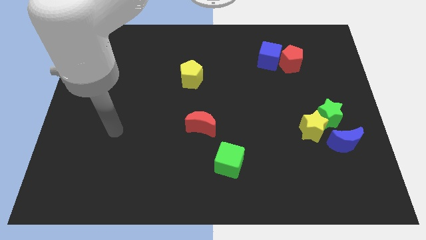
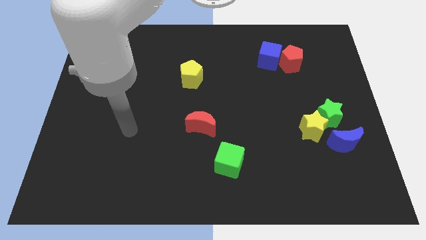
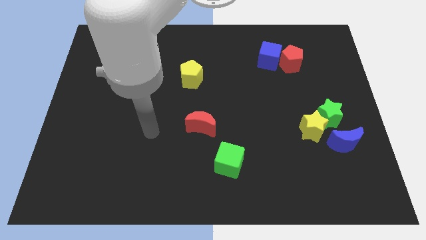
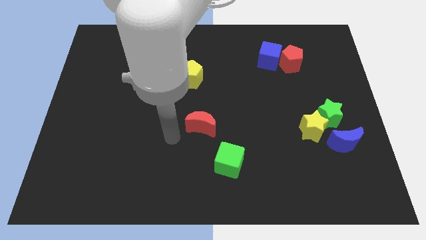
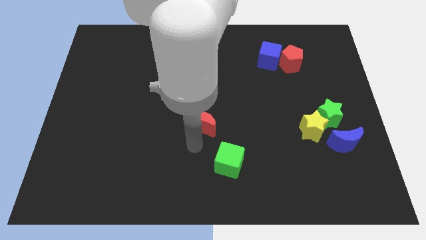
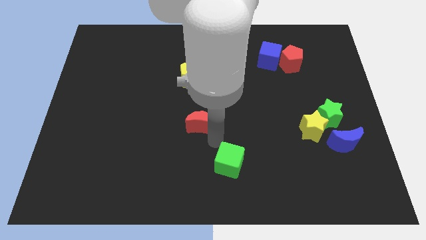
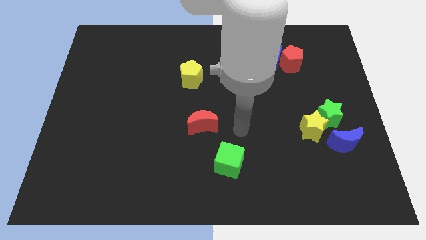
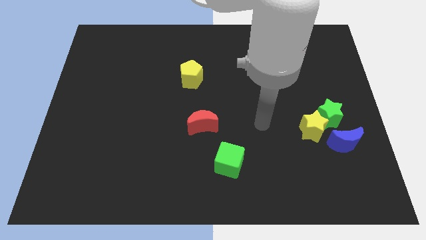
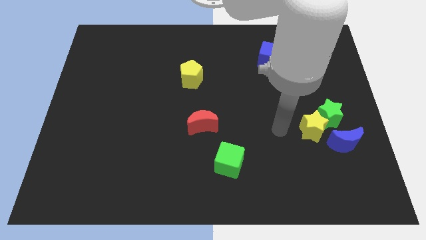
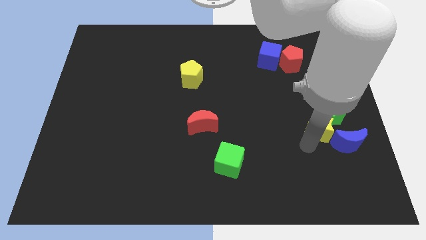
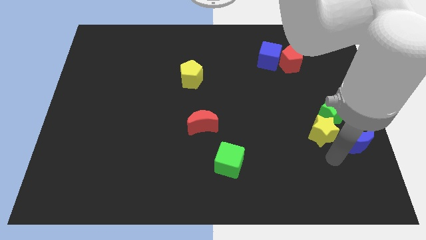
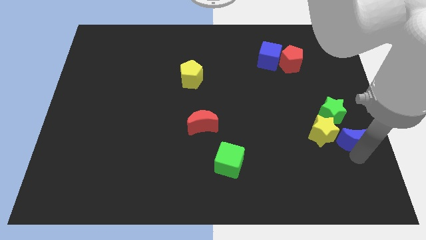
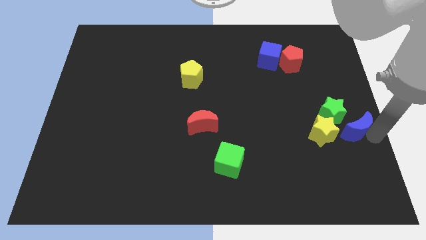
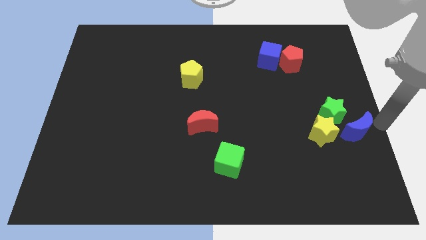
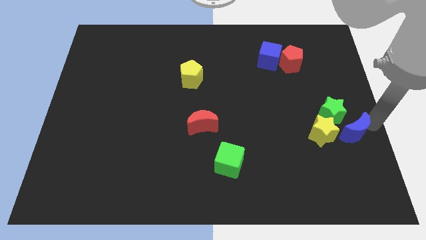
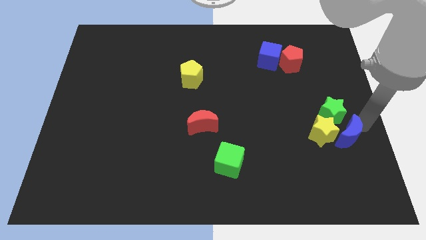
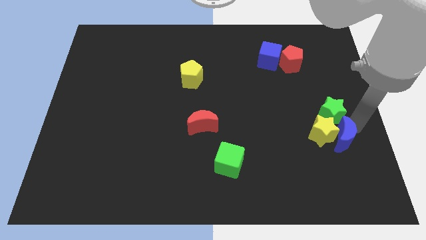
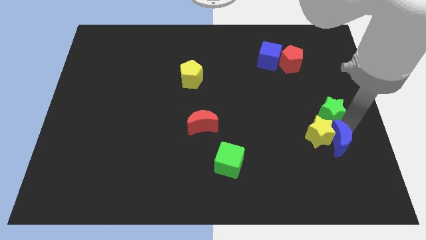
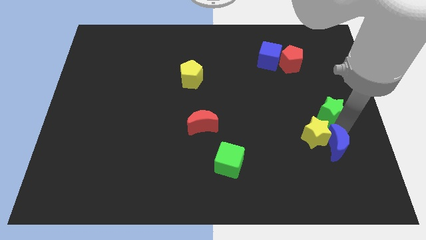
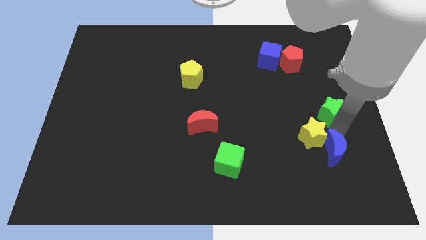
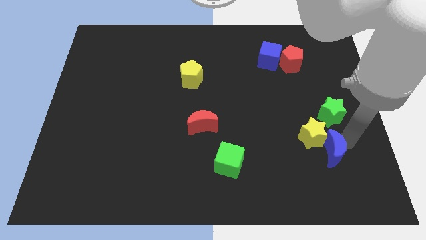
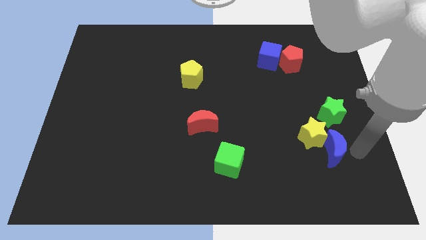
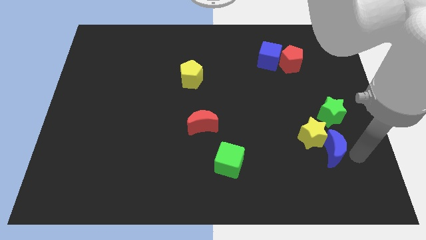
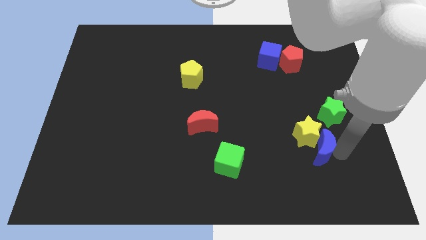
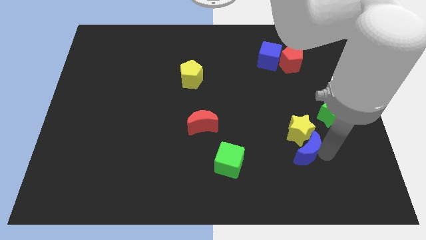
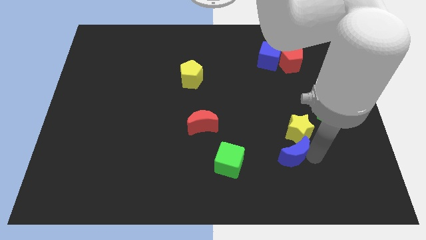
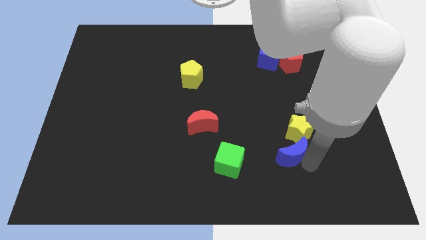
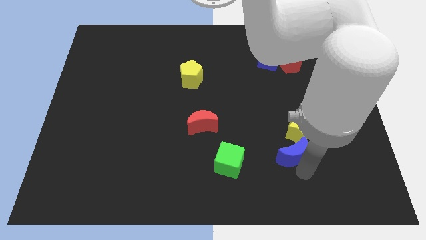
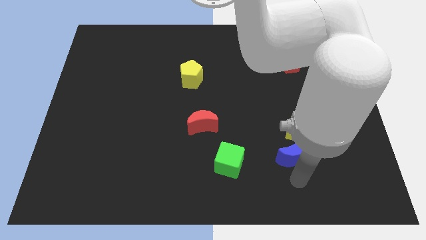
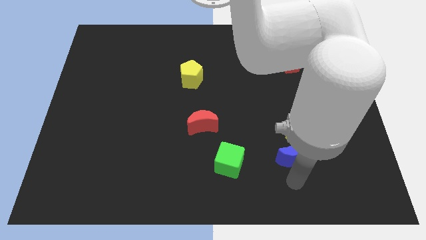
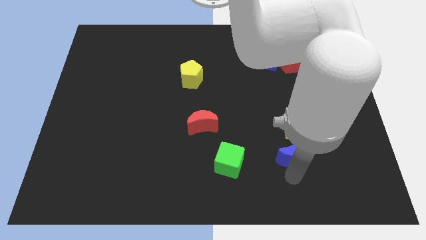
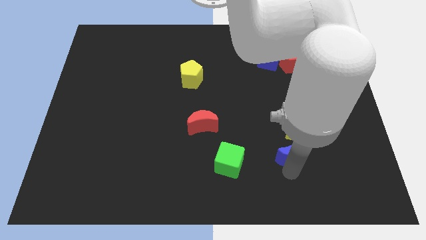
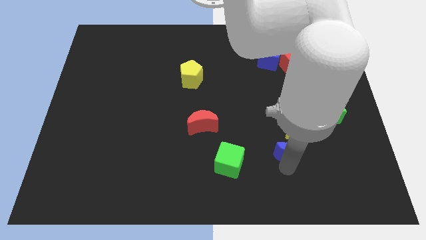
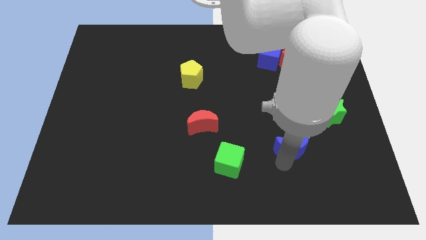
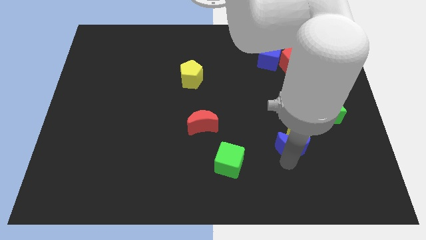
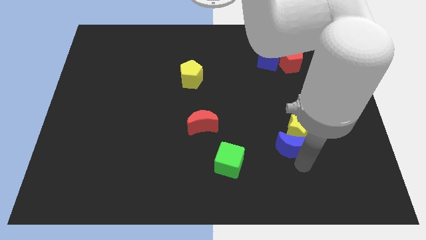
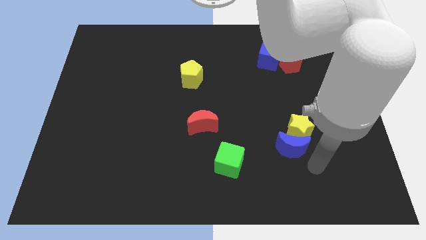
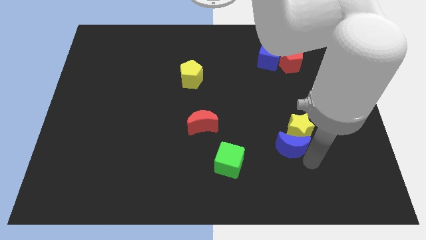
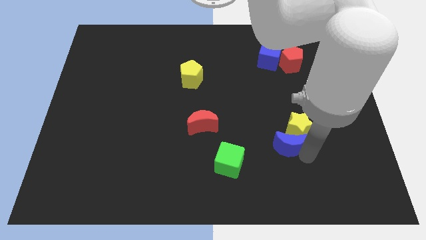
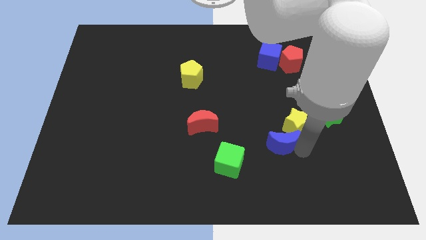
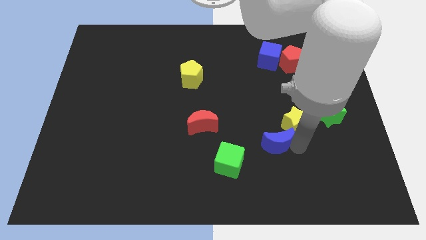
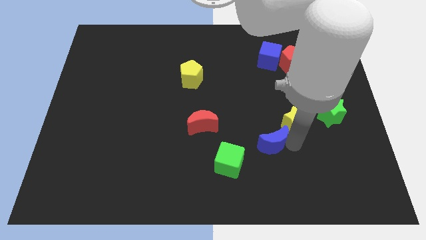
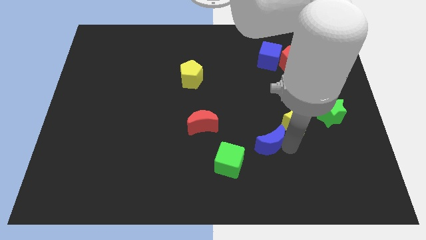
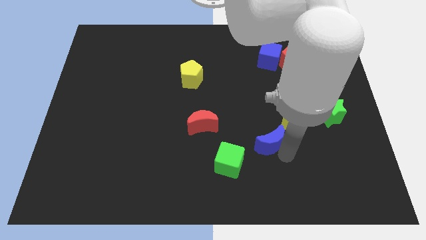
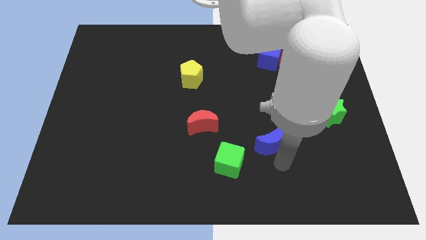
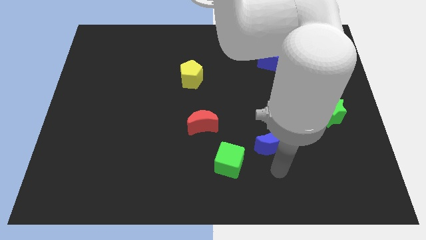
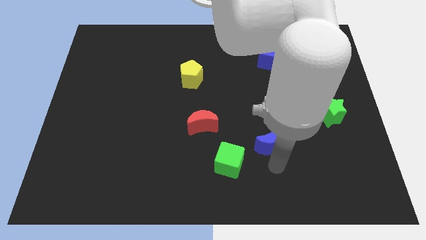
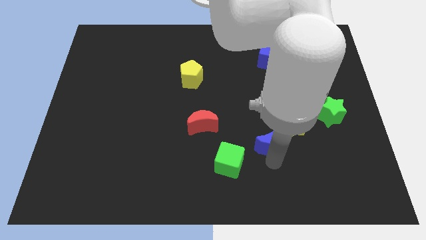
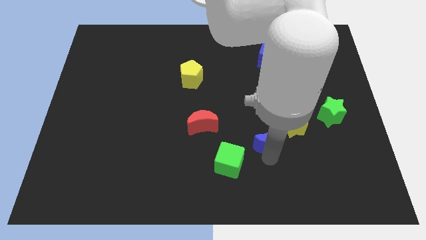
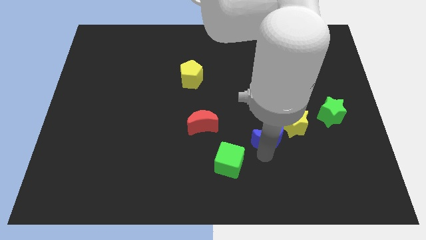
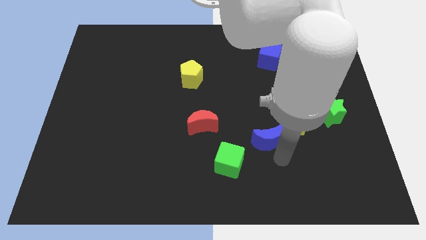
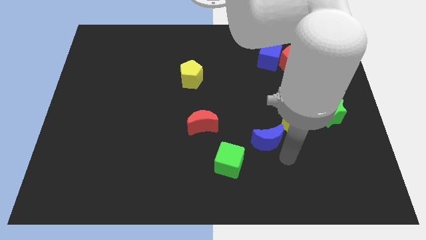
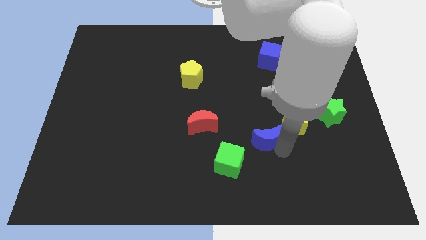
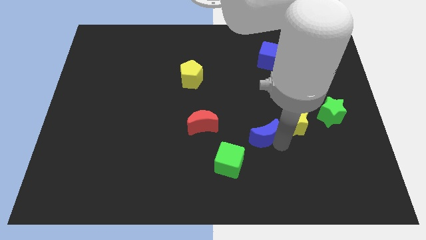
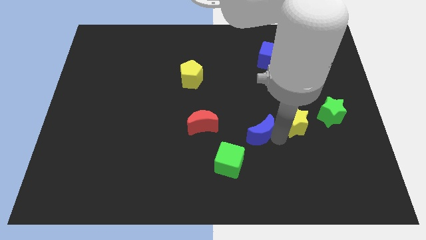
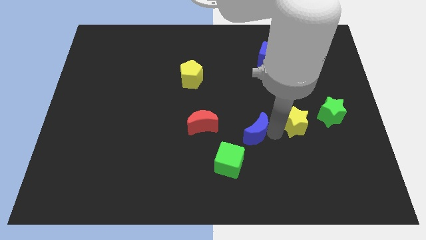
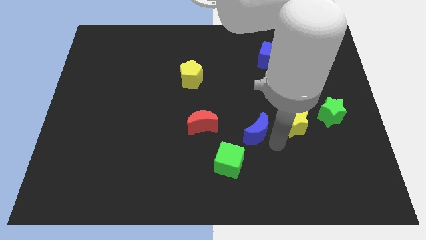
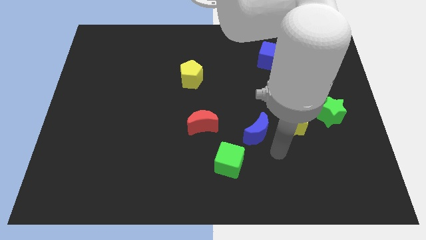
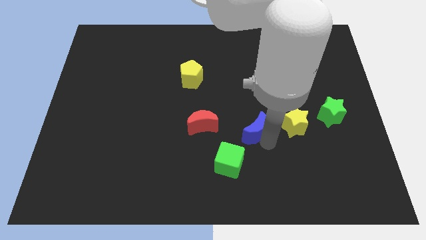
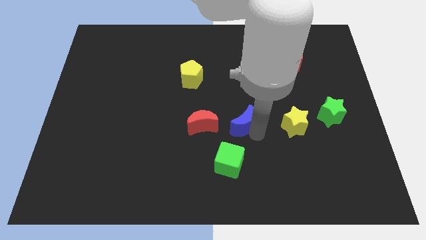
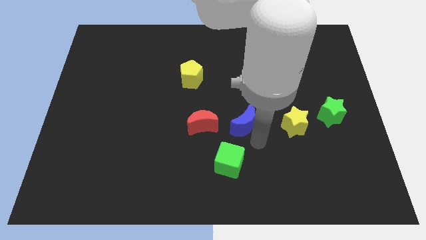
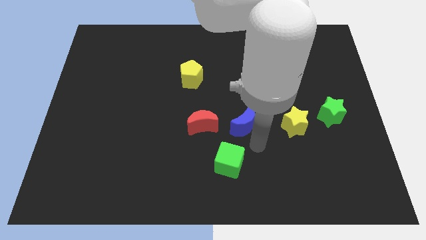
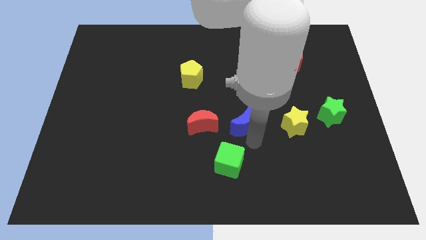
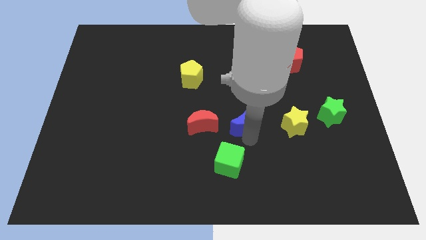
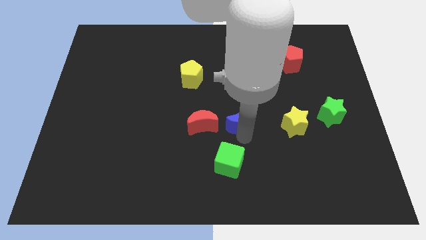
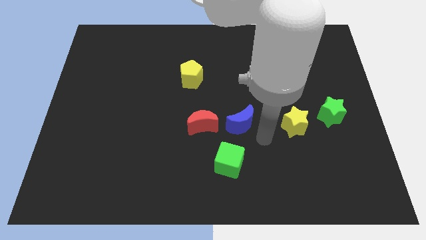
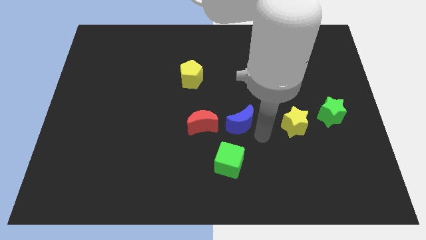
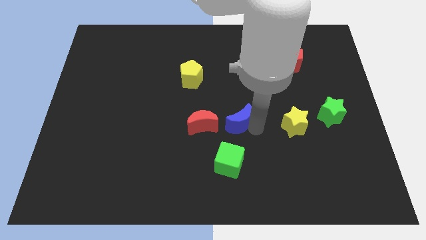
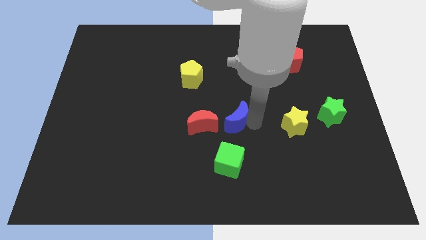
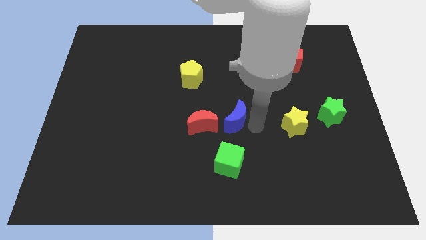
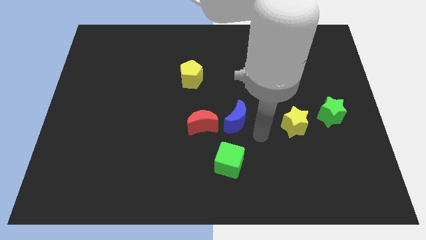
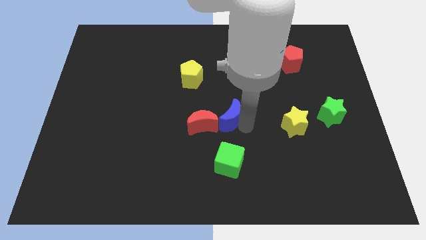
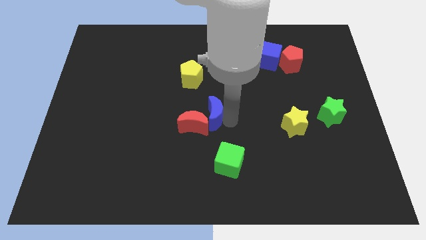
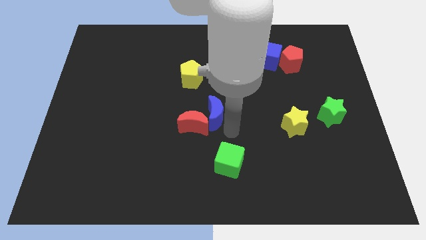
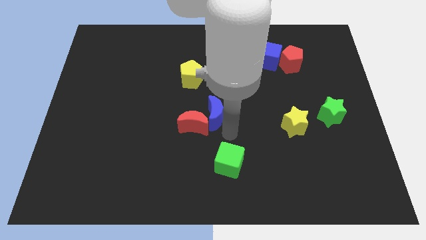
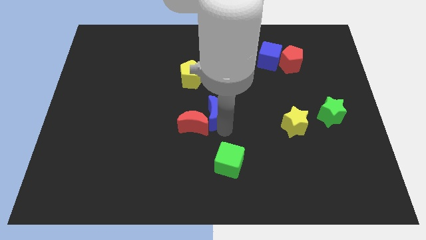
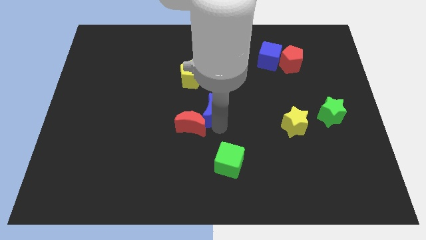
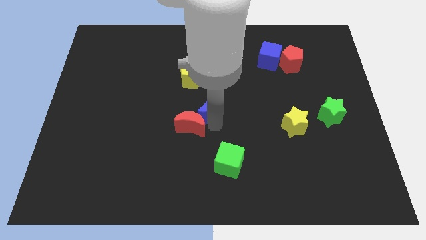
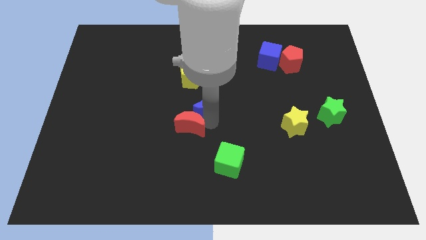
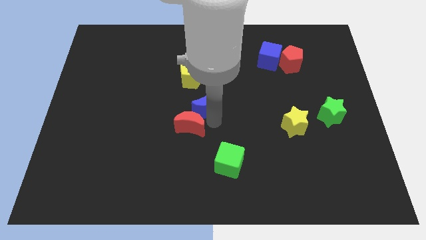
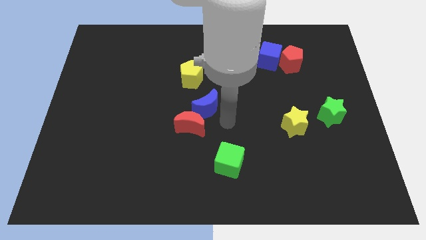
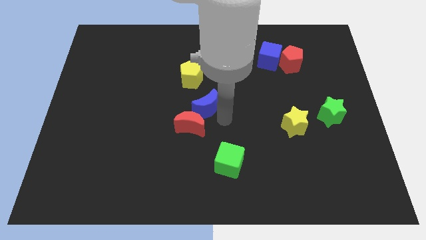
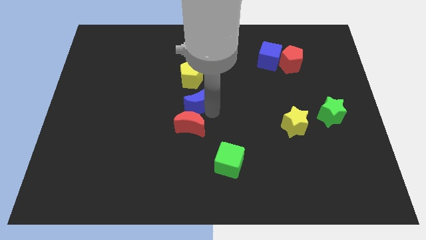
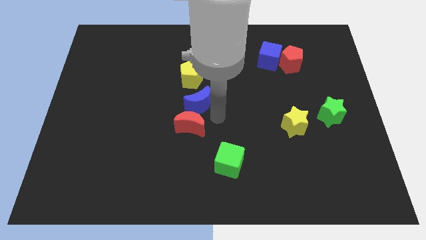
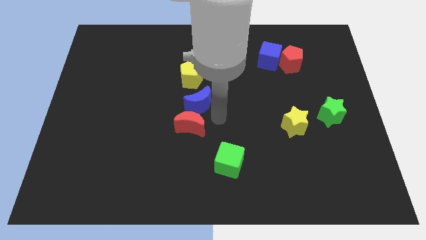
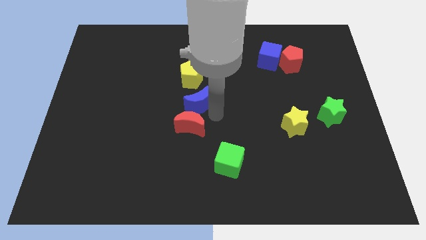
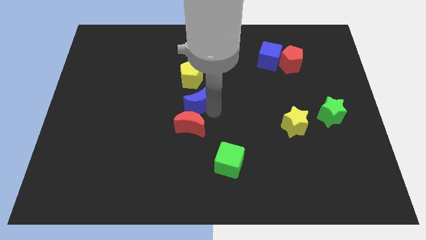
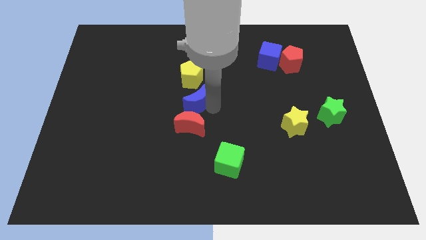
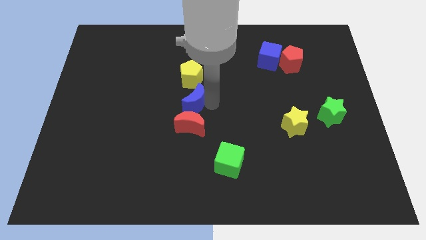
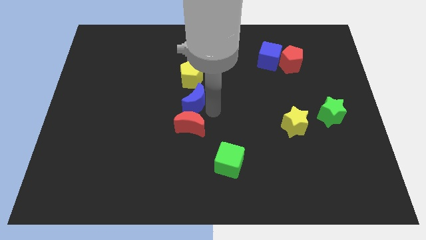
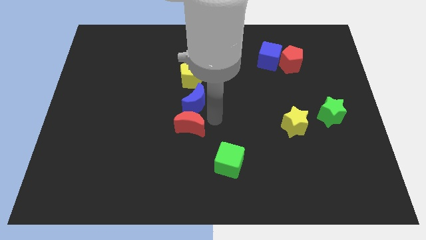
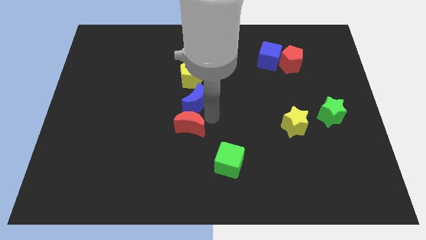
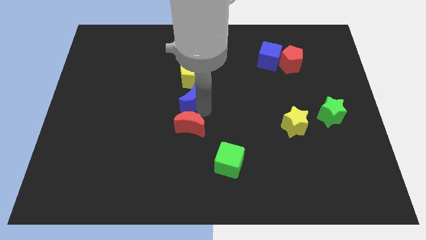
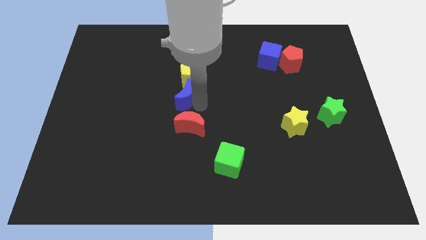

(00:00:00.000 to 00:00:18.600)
move the blue moon diagonally down and to the left of the yellow pentagon
